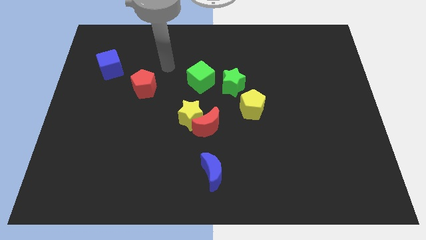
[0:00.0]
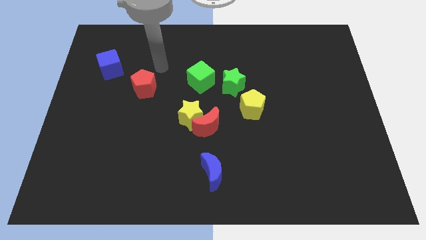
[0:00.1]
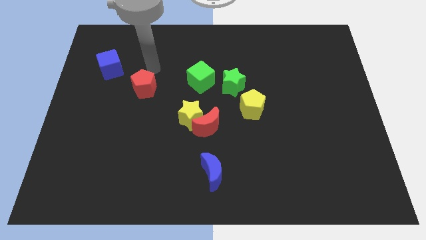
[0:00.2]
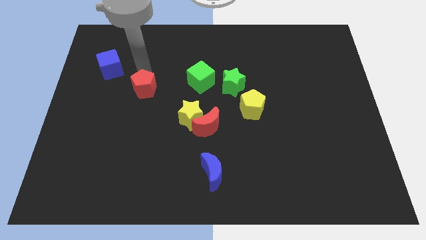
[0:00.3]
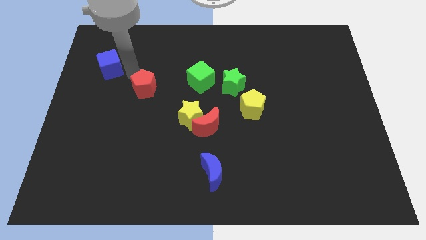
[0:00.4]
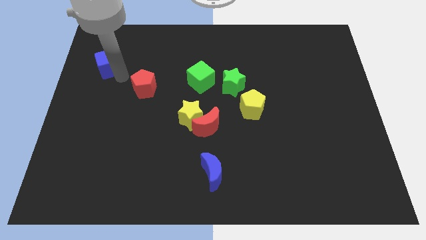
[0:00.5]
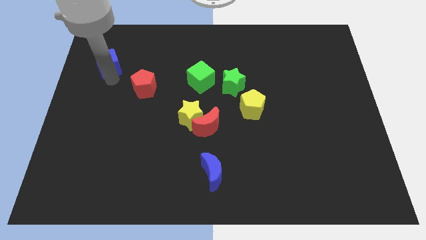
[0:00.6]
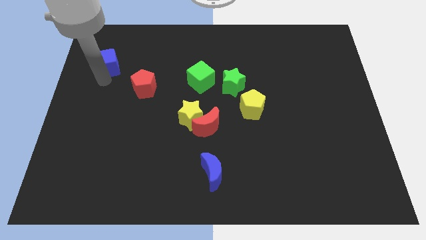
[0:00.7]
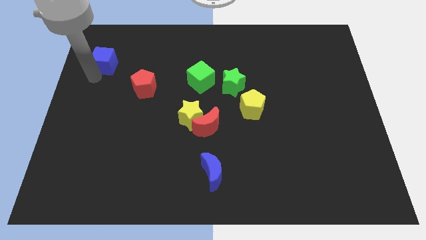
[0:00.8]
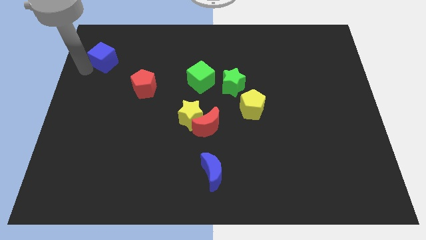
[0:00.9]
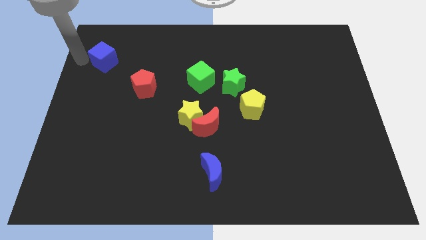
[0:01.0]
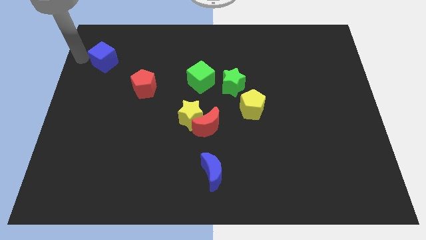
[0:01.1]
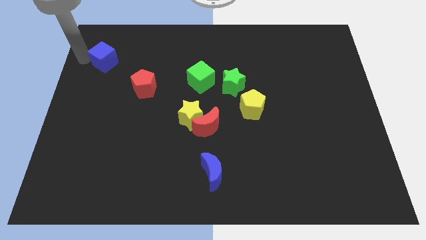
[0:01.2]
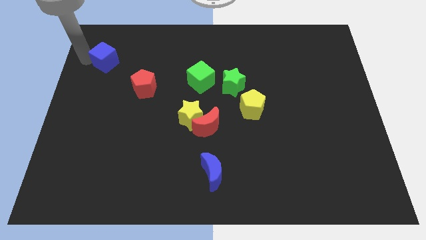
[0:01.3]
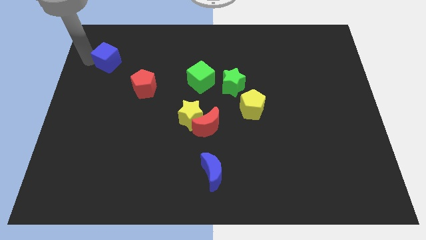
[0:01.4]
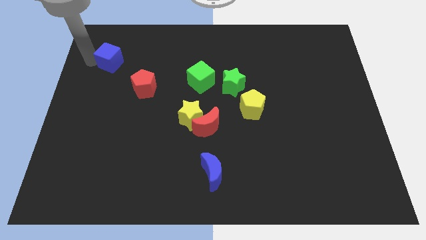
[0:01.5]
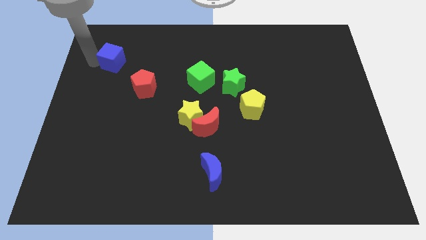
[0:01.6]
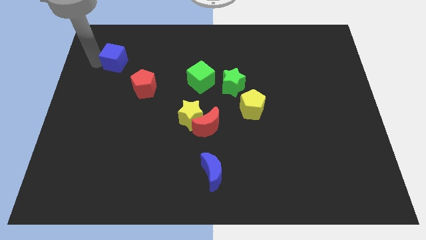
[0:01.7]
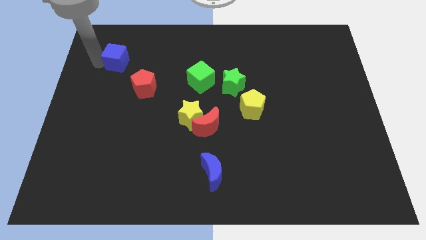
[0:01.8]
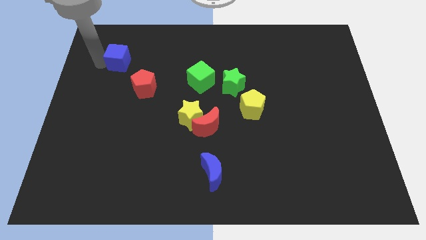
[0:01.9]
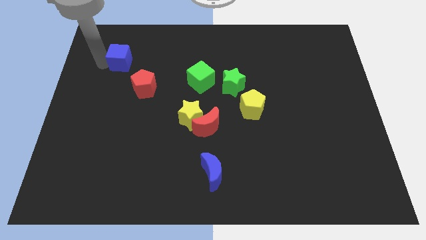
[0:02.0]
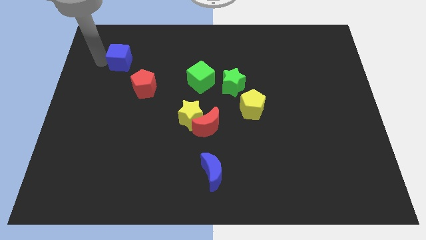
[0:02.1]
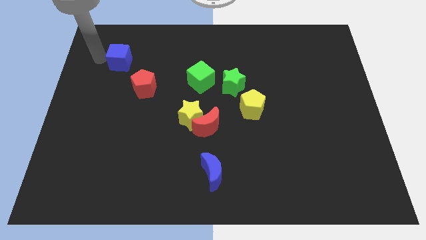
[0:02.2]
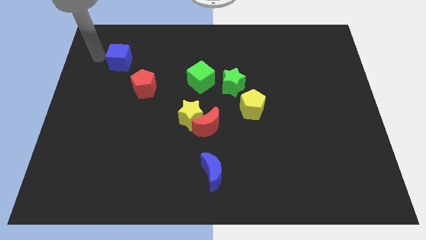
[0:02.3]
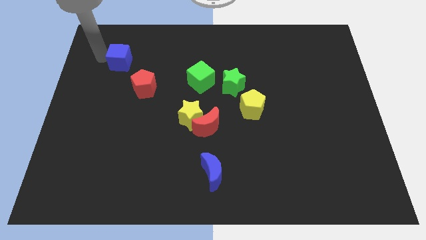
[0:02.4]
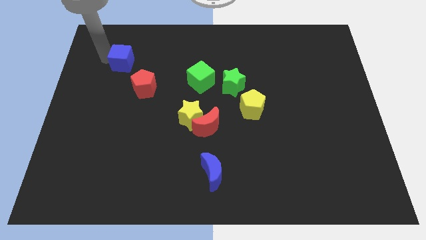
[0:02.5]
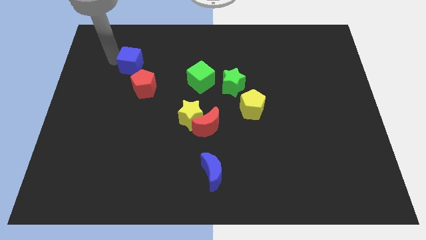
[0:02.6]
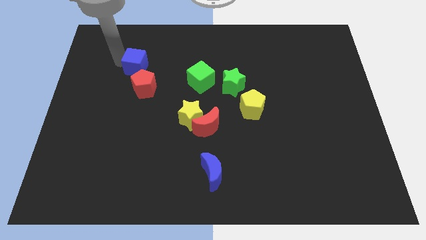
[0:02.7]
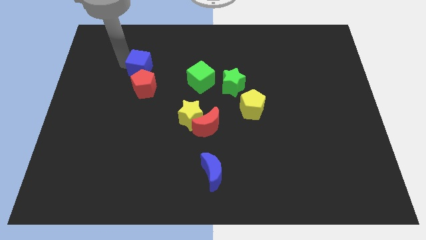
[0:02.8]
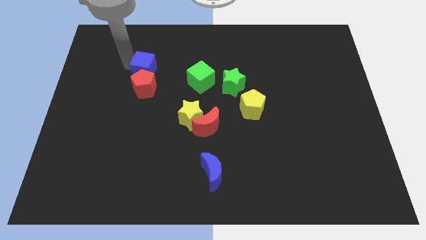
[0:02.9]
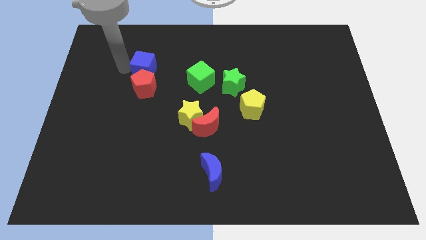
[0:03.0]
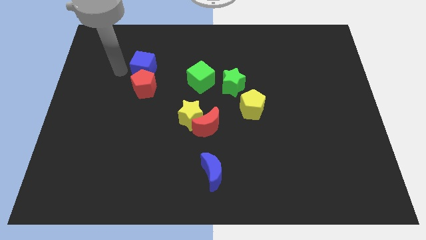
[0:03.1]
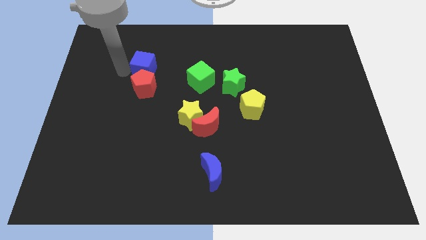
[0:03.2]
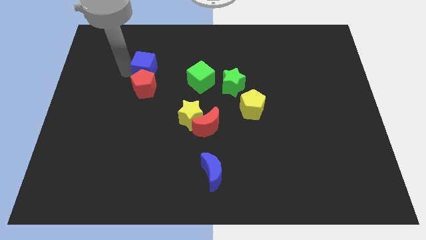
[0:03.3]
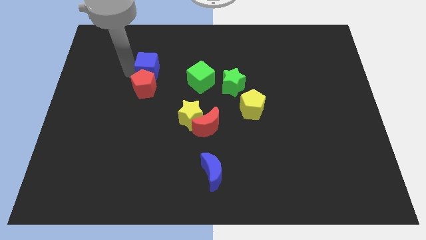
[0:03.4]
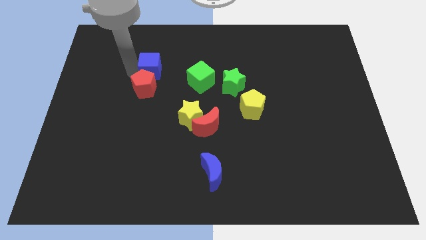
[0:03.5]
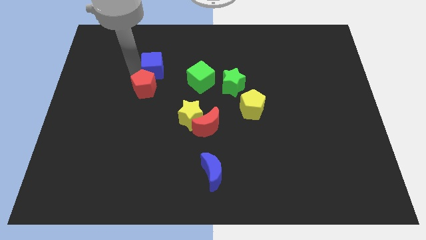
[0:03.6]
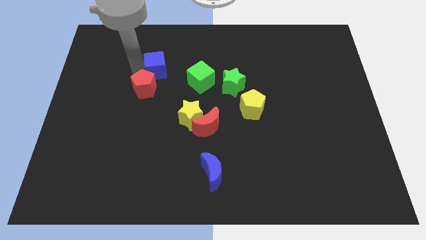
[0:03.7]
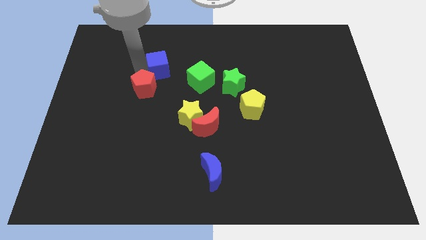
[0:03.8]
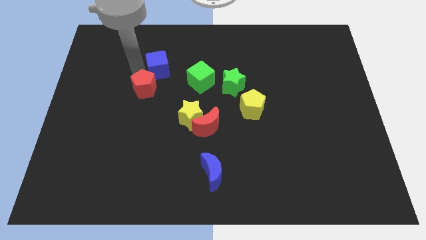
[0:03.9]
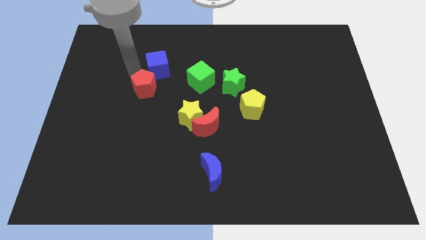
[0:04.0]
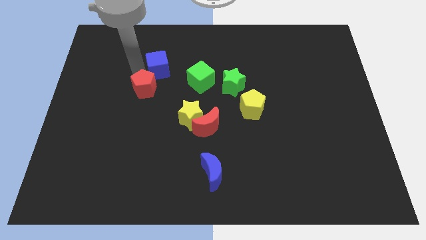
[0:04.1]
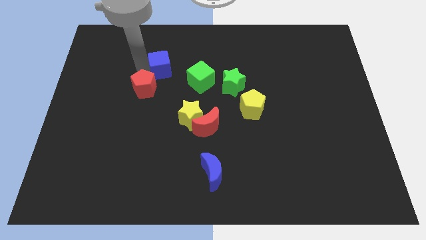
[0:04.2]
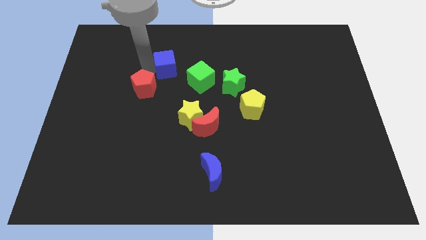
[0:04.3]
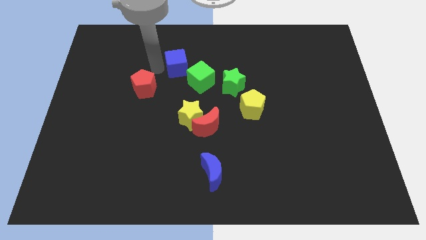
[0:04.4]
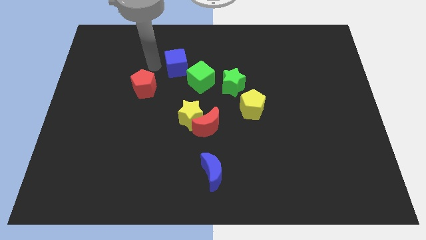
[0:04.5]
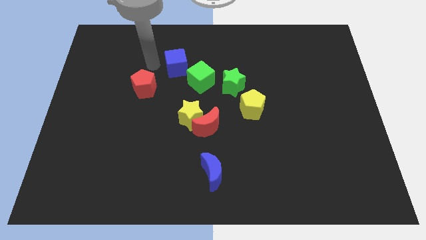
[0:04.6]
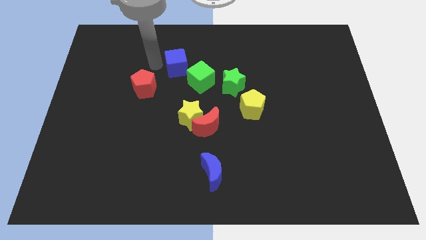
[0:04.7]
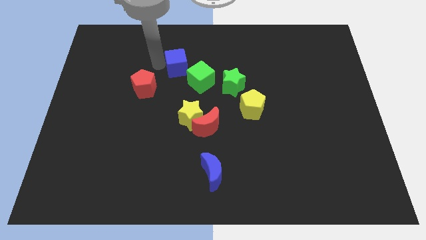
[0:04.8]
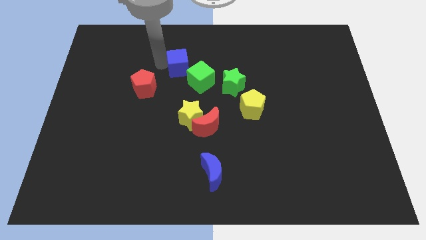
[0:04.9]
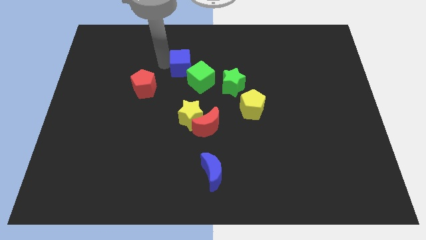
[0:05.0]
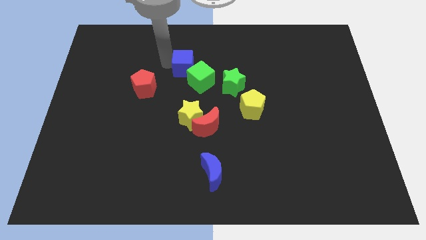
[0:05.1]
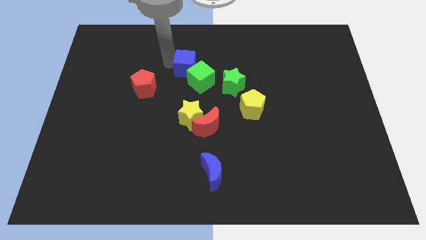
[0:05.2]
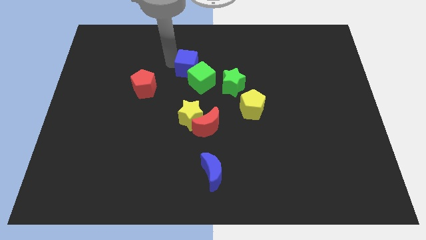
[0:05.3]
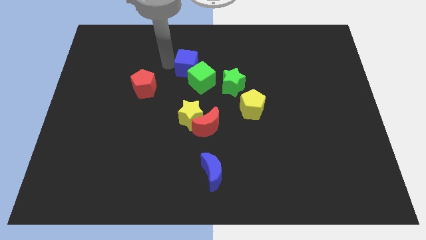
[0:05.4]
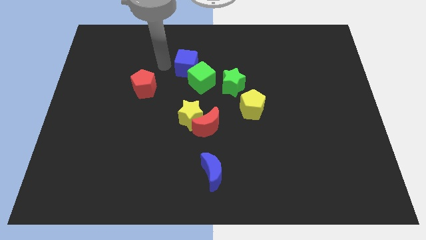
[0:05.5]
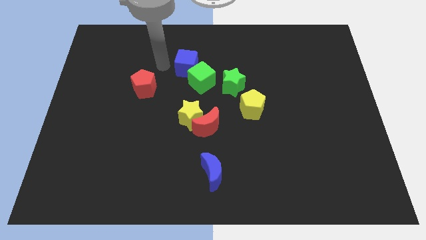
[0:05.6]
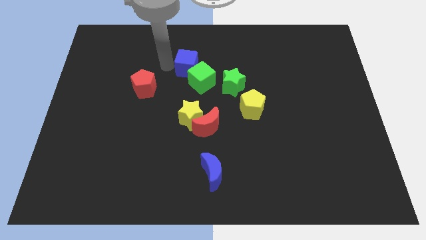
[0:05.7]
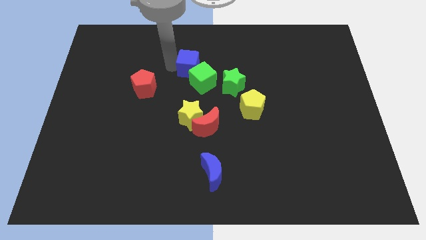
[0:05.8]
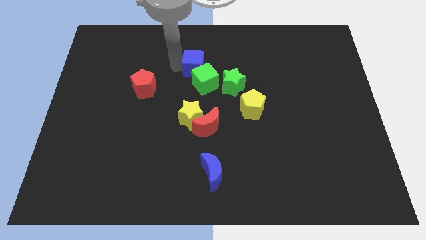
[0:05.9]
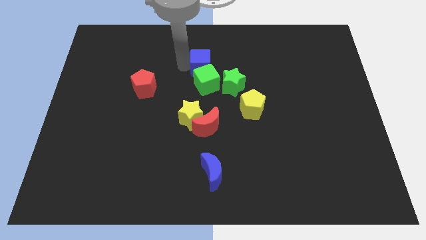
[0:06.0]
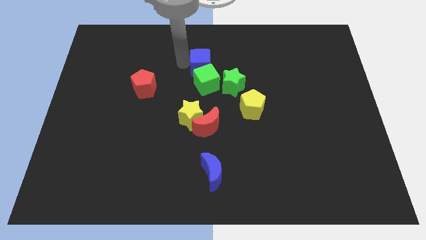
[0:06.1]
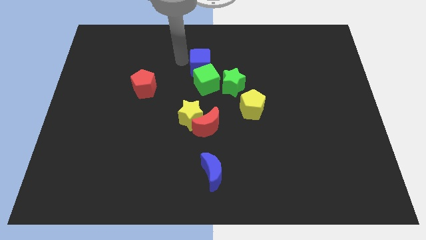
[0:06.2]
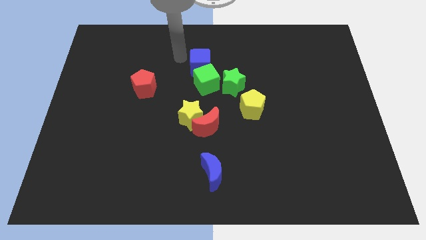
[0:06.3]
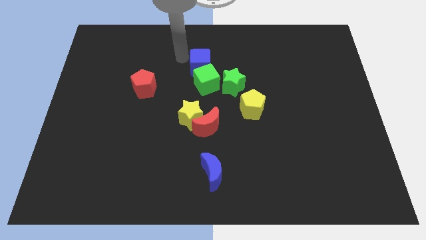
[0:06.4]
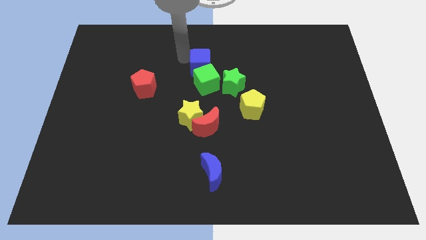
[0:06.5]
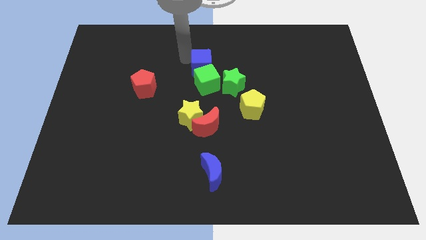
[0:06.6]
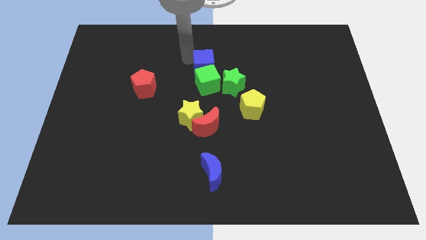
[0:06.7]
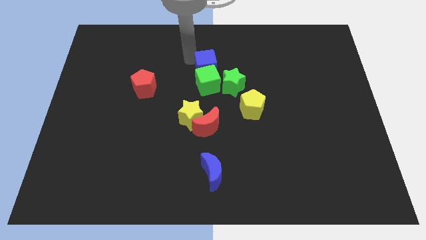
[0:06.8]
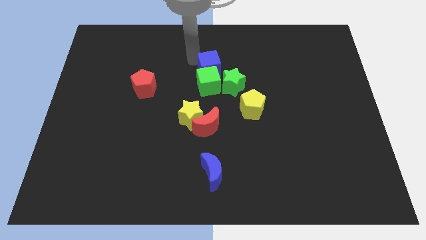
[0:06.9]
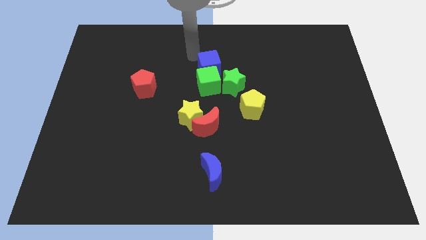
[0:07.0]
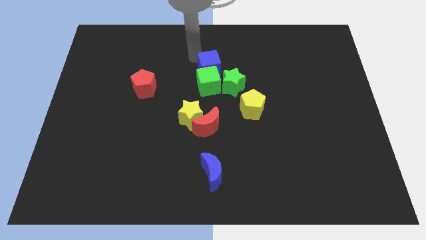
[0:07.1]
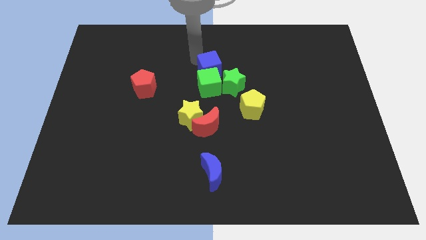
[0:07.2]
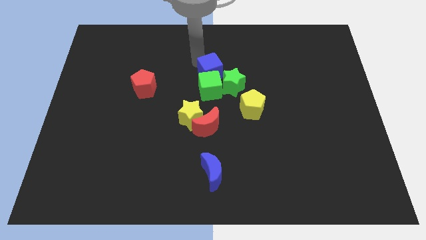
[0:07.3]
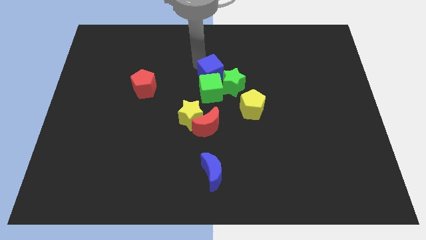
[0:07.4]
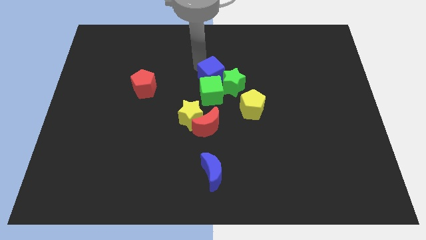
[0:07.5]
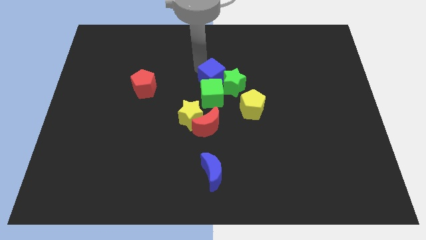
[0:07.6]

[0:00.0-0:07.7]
push the blue cube towards the green star

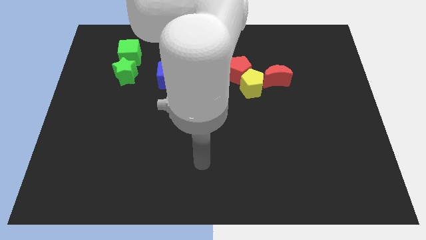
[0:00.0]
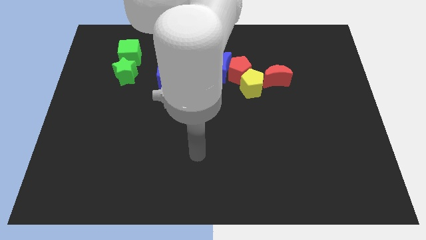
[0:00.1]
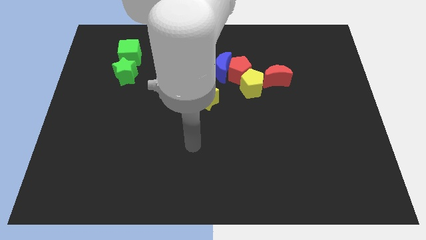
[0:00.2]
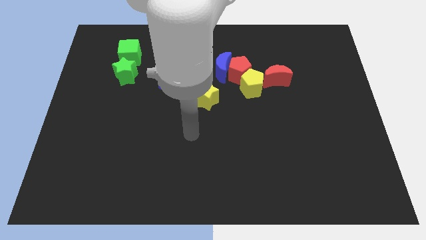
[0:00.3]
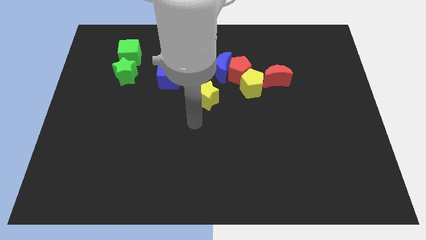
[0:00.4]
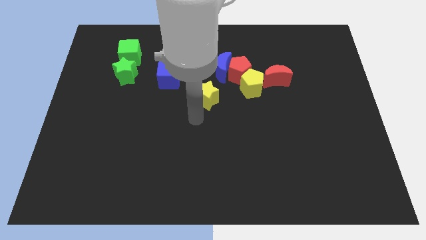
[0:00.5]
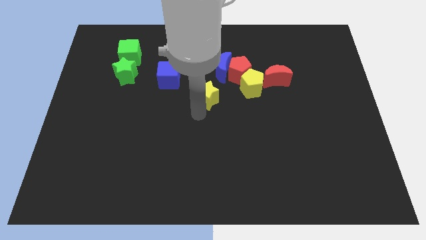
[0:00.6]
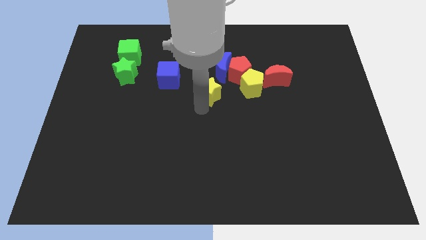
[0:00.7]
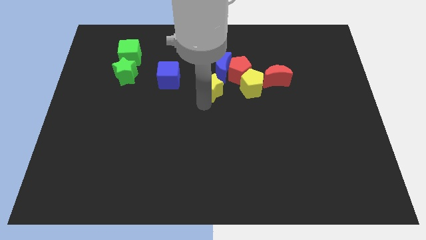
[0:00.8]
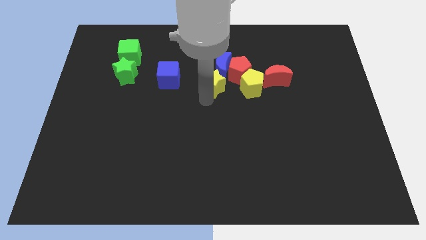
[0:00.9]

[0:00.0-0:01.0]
move the yellow star towards the blue moon
